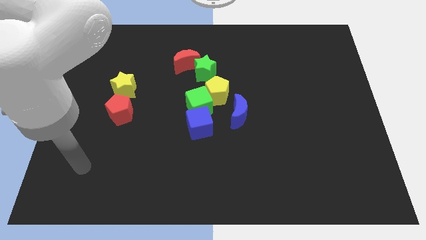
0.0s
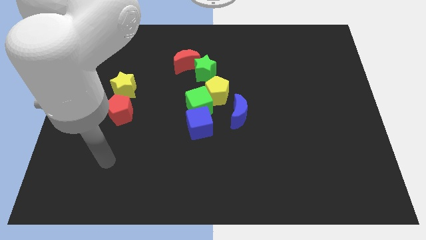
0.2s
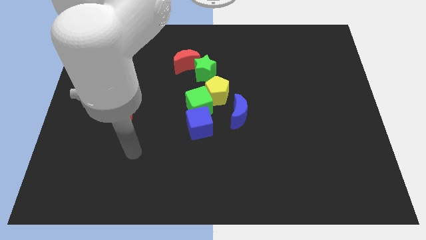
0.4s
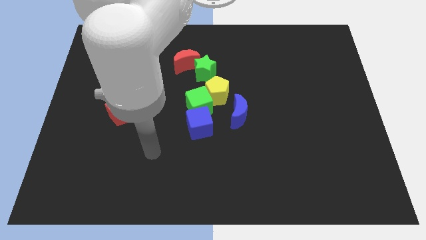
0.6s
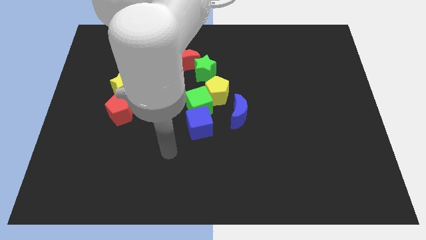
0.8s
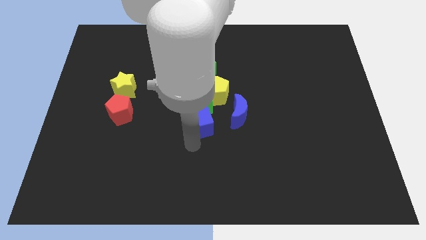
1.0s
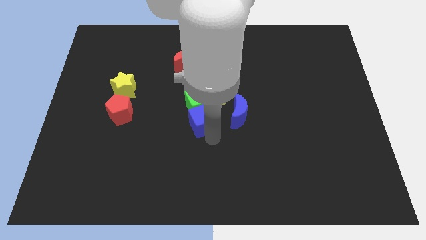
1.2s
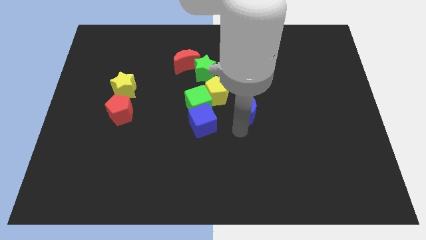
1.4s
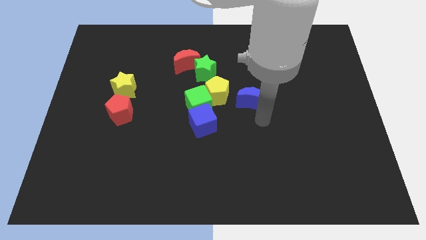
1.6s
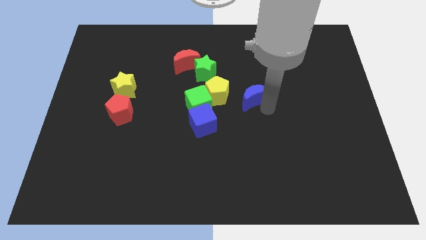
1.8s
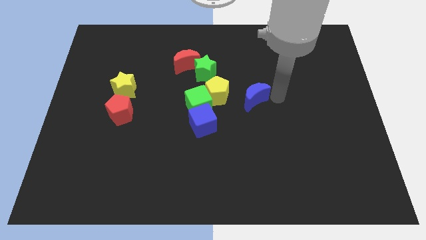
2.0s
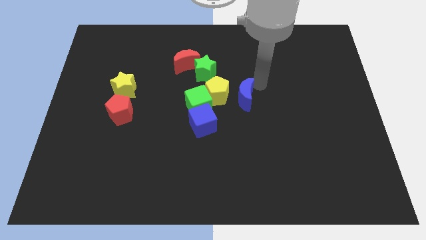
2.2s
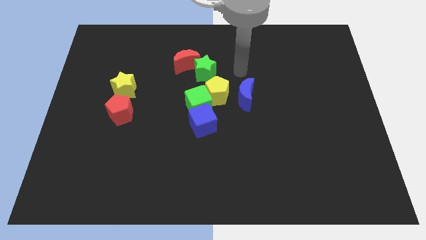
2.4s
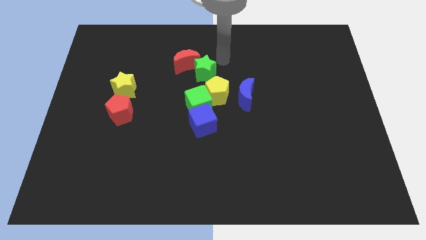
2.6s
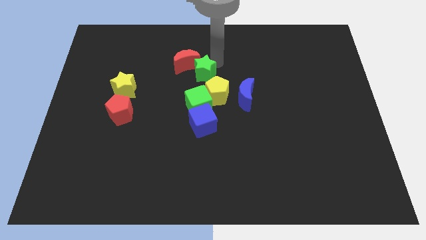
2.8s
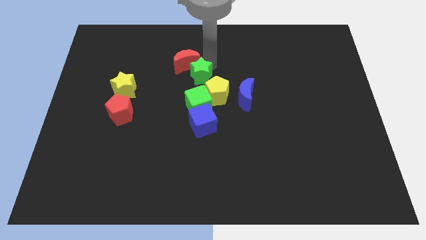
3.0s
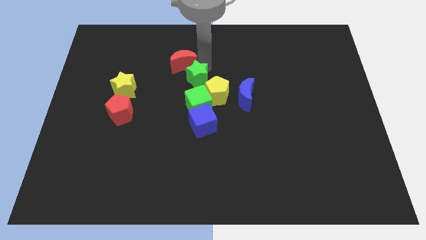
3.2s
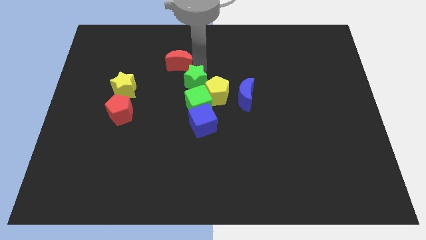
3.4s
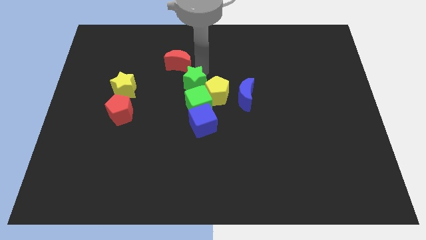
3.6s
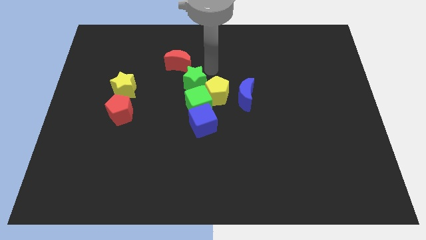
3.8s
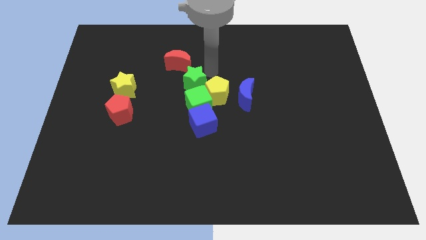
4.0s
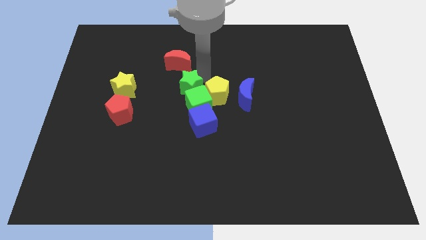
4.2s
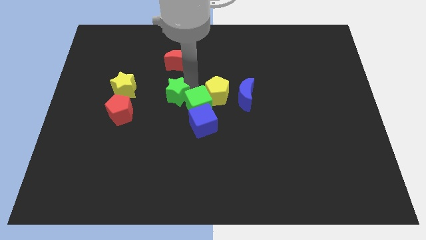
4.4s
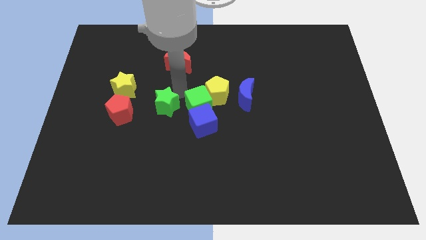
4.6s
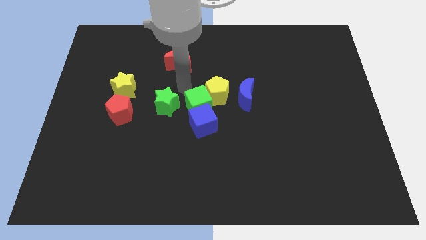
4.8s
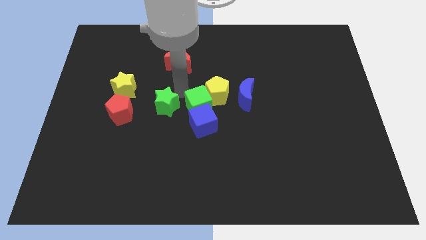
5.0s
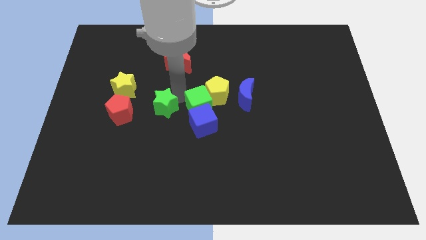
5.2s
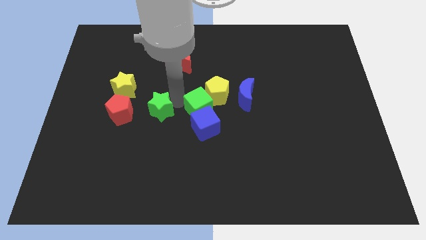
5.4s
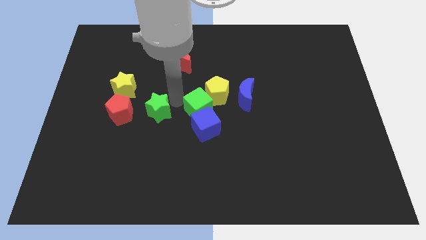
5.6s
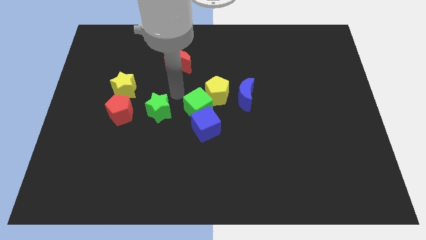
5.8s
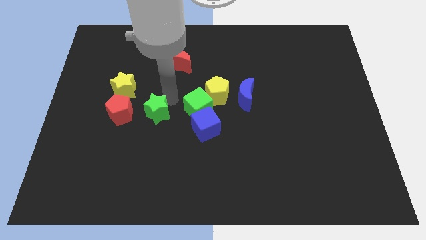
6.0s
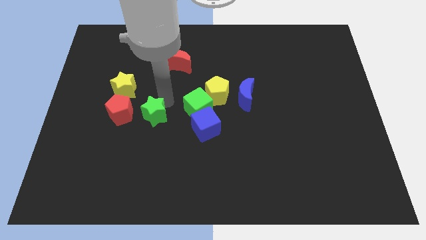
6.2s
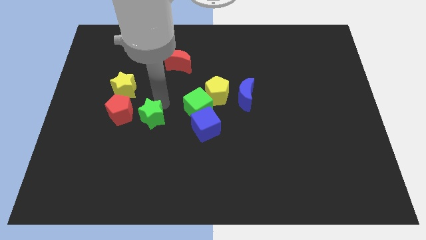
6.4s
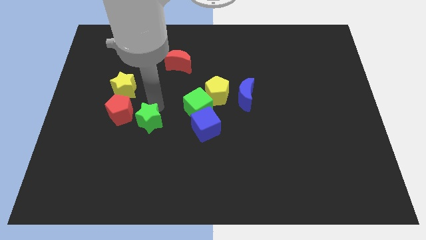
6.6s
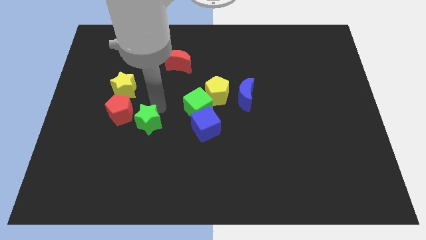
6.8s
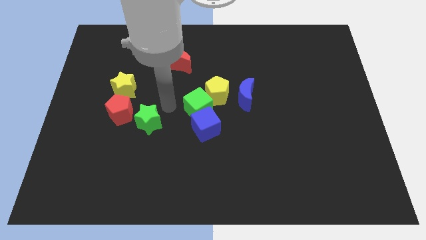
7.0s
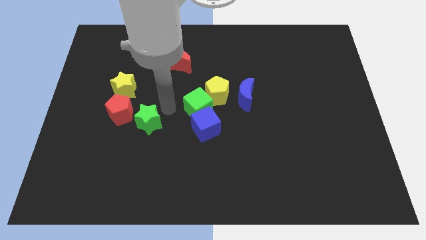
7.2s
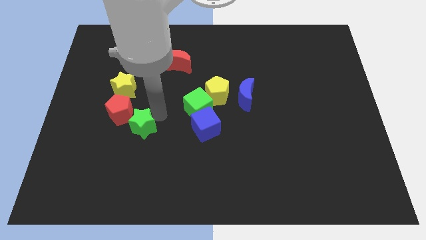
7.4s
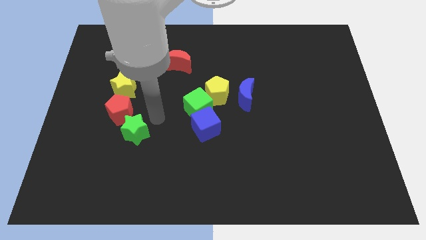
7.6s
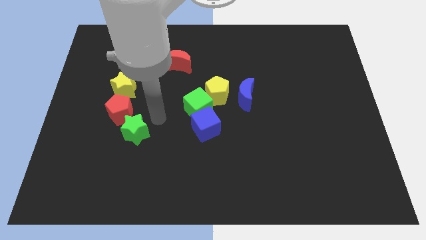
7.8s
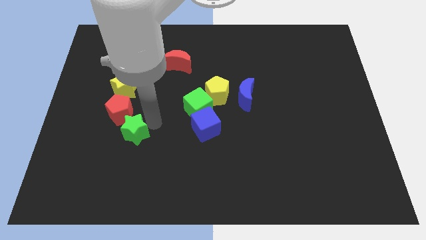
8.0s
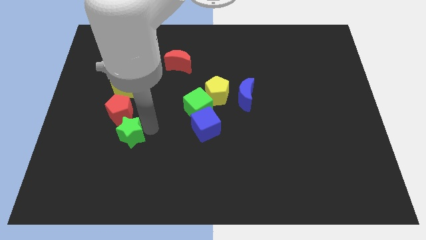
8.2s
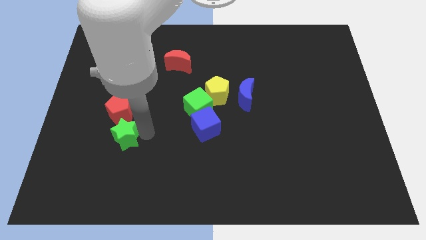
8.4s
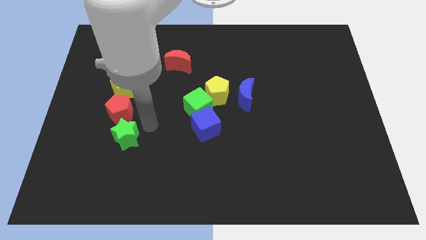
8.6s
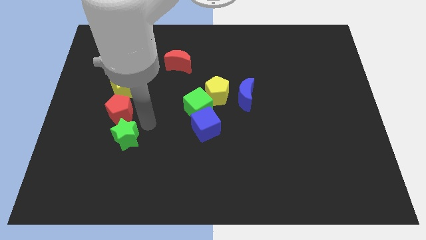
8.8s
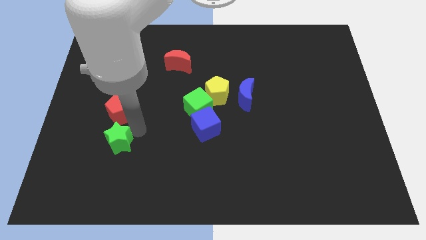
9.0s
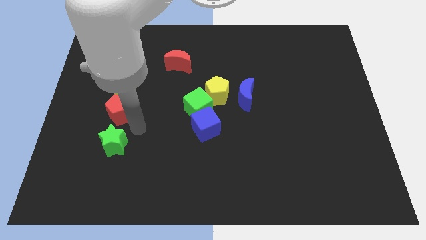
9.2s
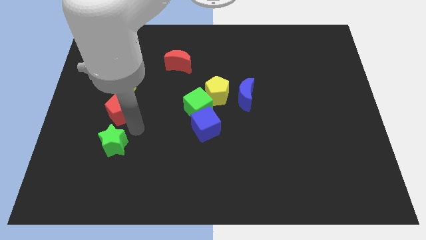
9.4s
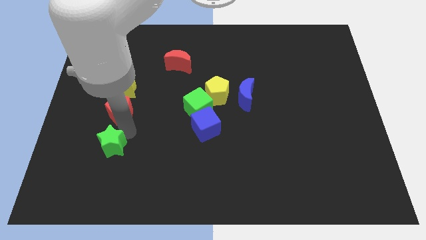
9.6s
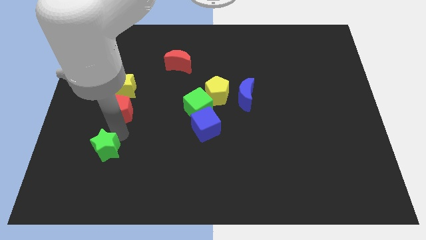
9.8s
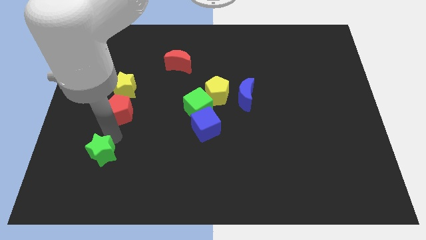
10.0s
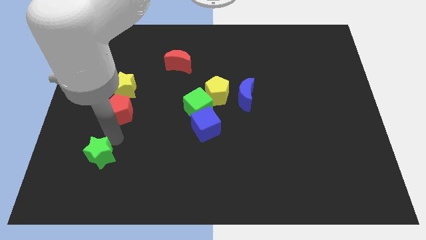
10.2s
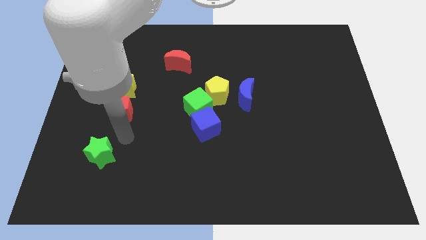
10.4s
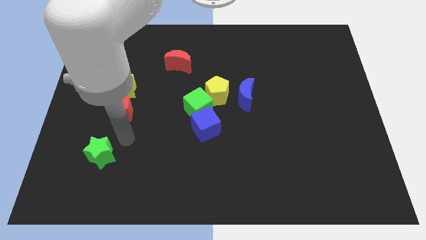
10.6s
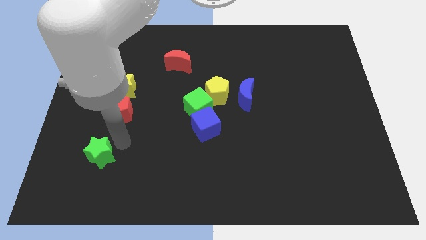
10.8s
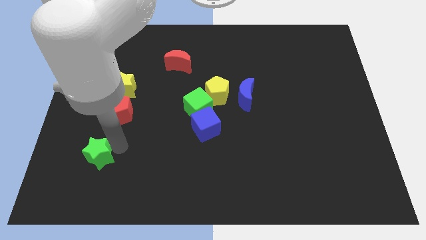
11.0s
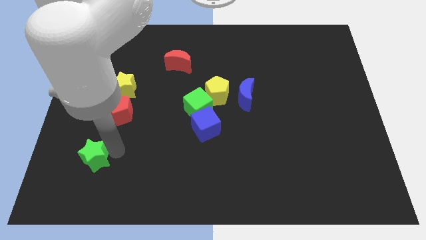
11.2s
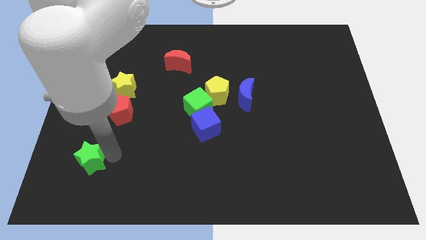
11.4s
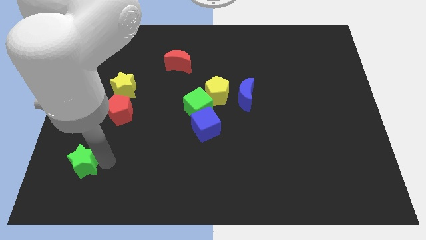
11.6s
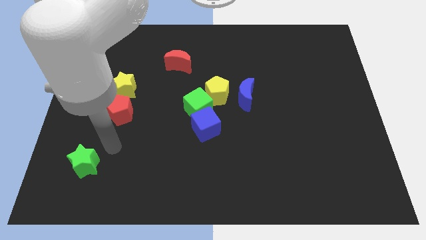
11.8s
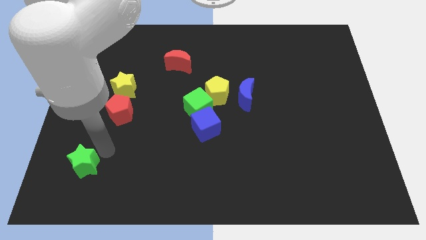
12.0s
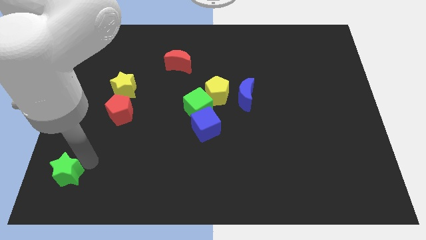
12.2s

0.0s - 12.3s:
move the green star to the bottom left corner

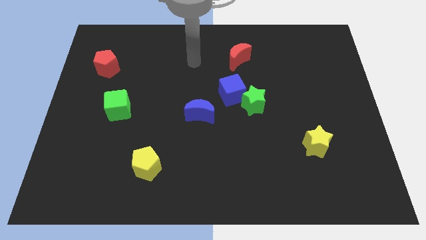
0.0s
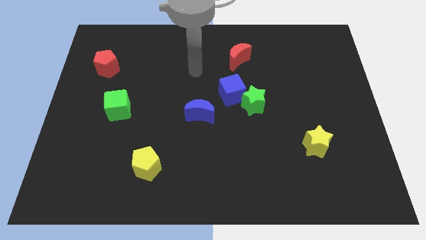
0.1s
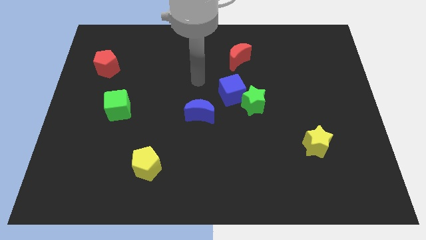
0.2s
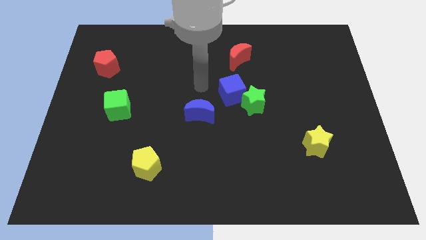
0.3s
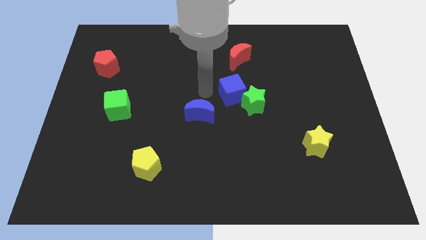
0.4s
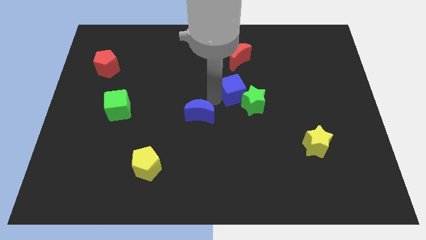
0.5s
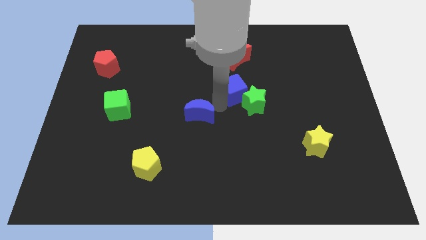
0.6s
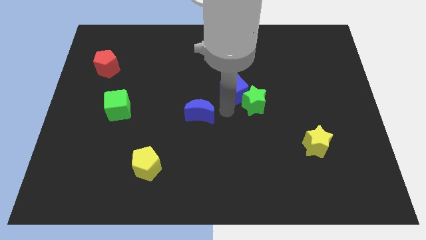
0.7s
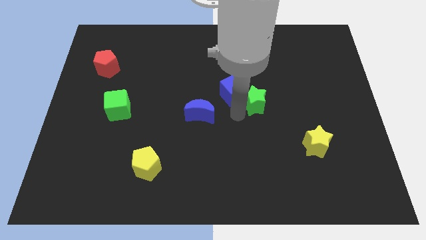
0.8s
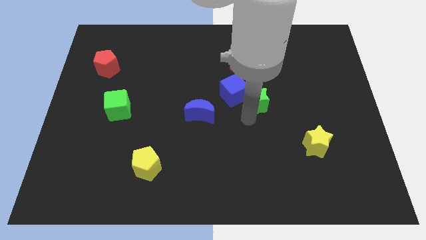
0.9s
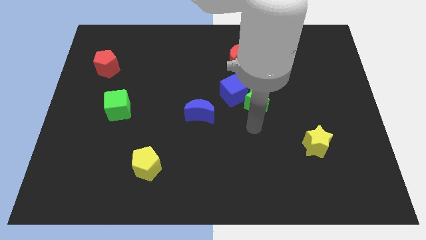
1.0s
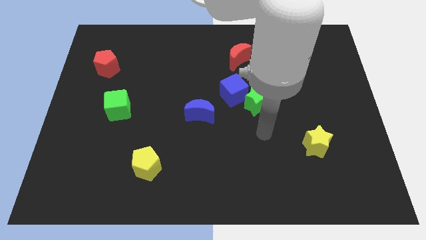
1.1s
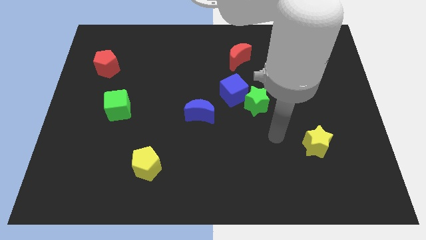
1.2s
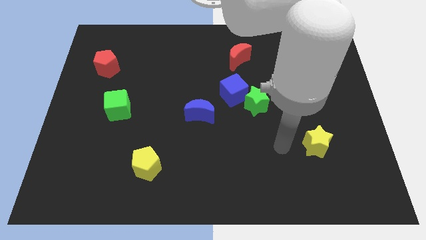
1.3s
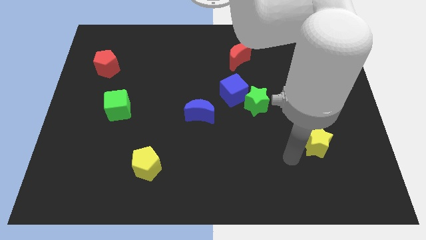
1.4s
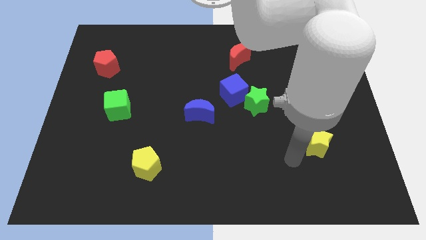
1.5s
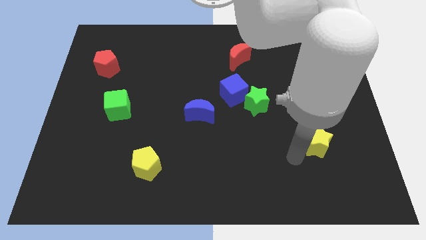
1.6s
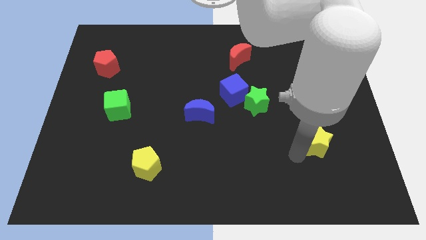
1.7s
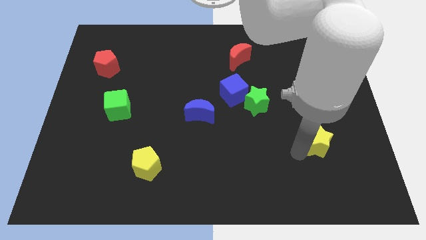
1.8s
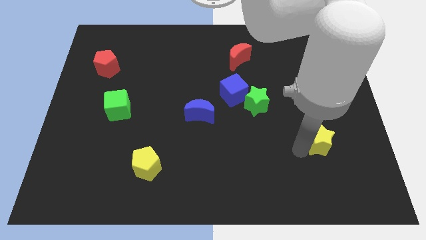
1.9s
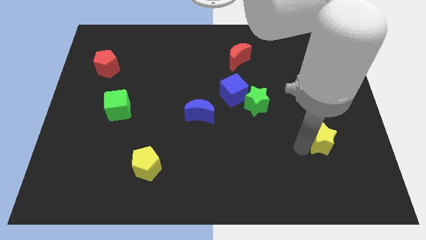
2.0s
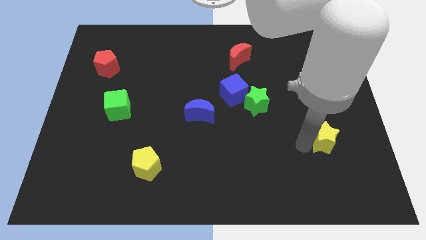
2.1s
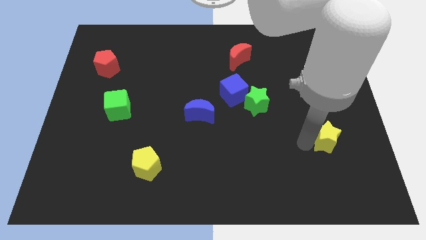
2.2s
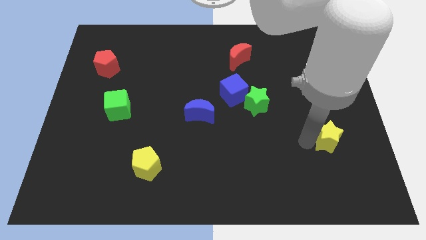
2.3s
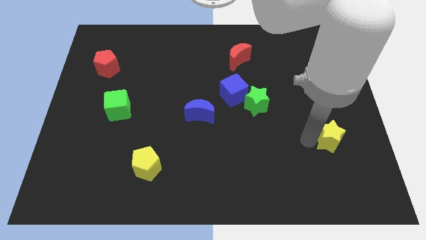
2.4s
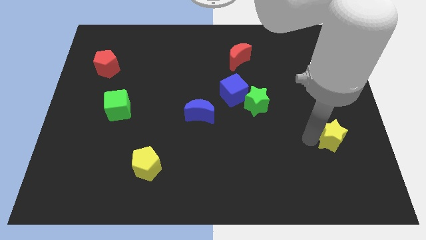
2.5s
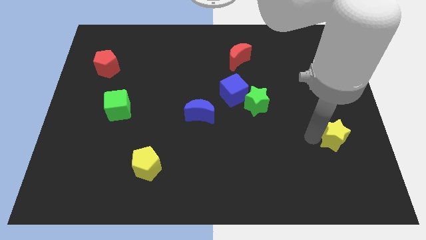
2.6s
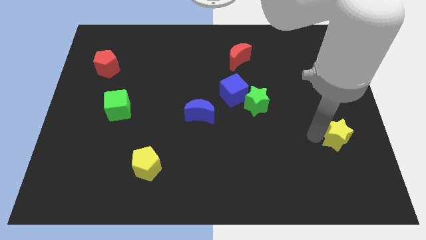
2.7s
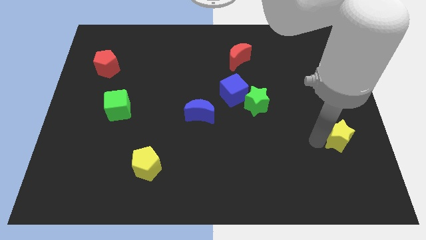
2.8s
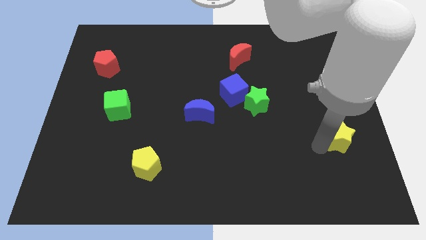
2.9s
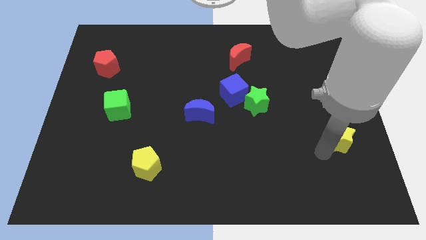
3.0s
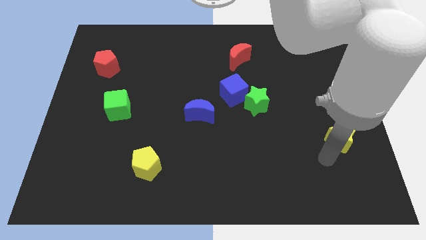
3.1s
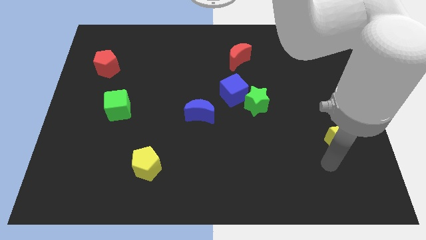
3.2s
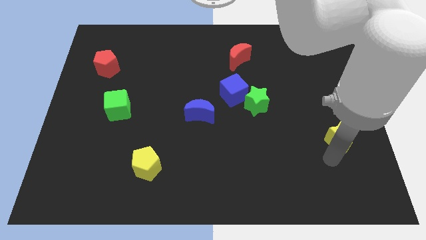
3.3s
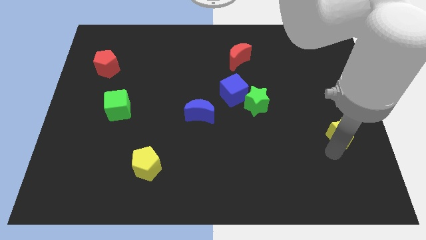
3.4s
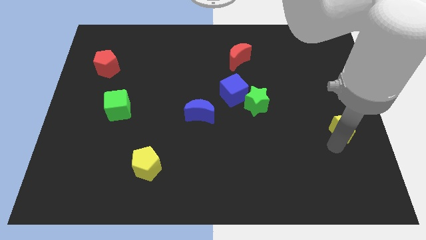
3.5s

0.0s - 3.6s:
push the yellow star to the center right
